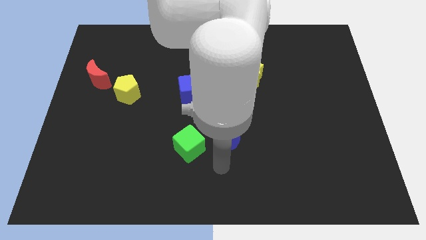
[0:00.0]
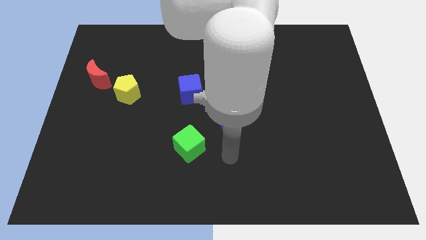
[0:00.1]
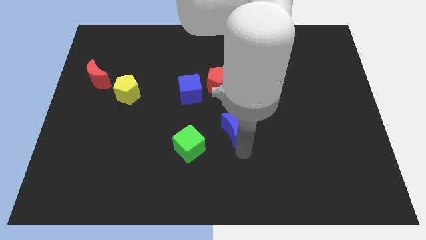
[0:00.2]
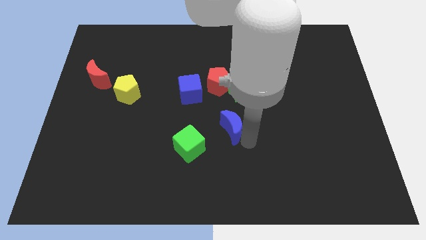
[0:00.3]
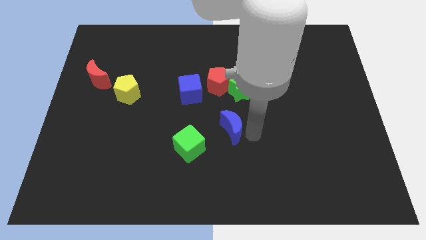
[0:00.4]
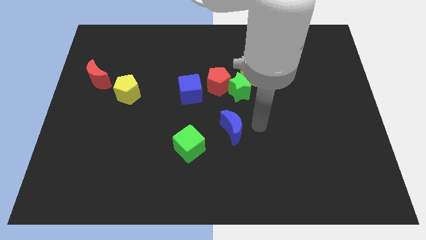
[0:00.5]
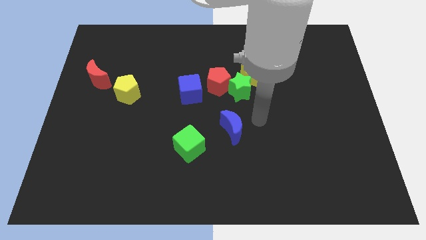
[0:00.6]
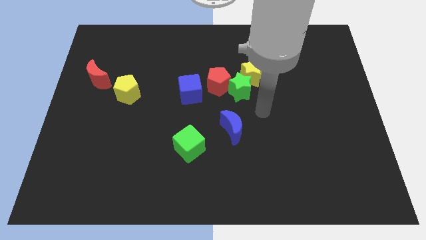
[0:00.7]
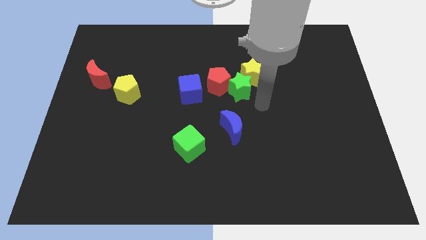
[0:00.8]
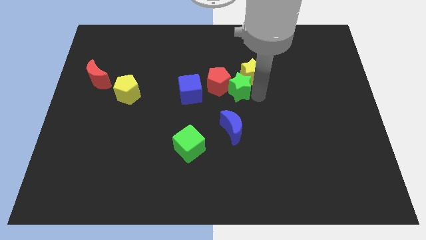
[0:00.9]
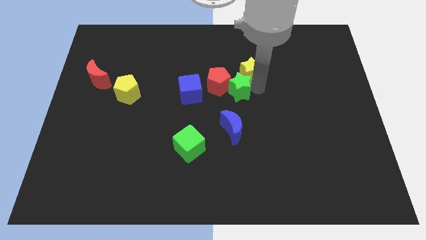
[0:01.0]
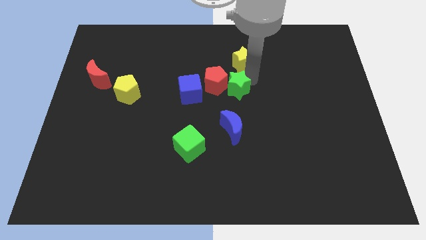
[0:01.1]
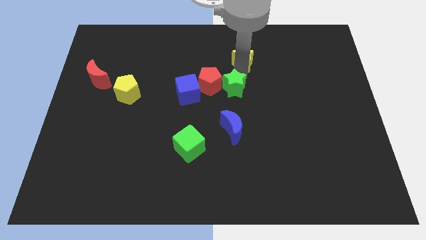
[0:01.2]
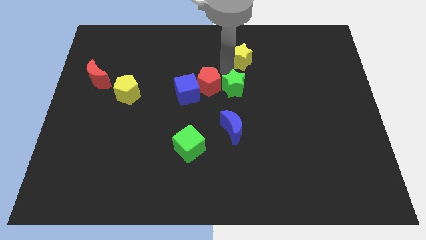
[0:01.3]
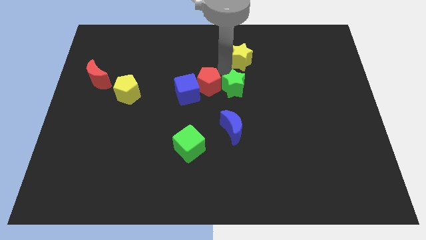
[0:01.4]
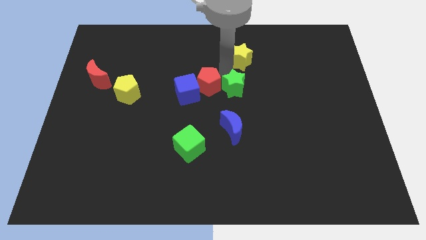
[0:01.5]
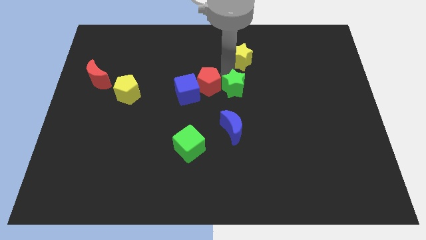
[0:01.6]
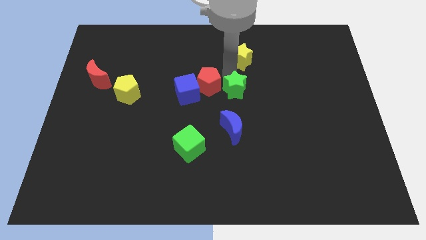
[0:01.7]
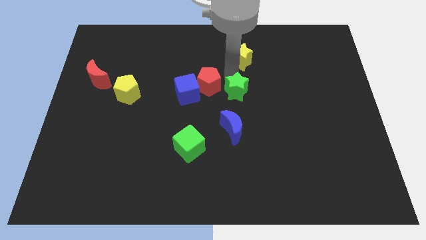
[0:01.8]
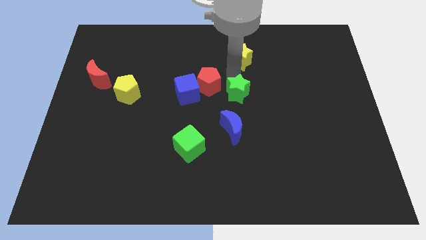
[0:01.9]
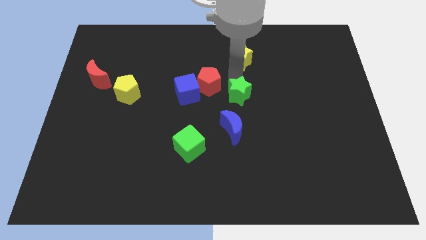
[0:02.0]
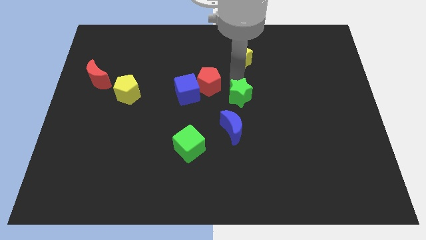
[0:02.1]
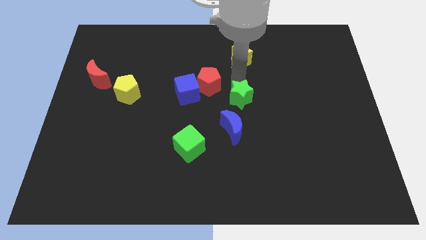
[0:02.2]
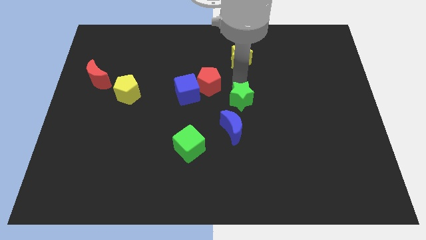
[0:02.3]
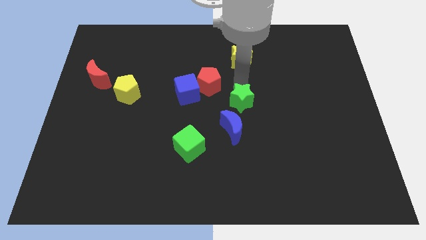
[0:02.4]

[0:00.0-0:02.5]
separate the green star from the red pentagon and yellow star

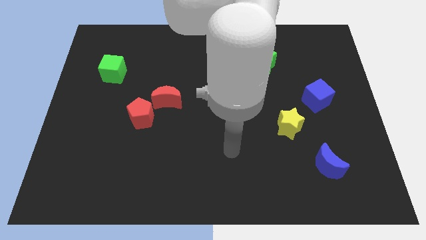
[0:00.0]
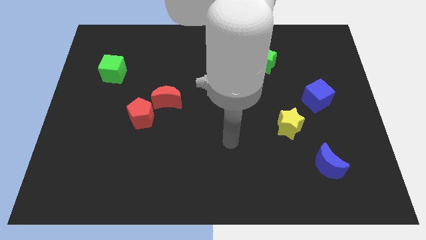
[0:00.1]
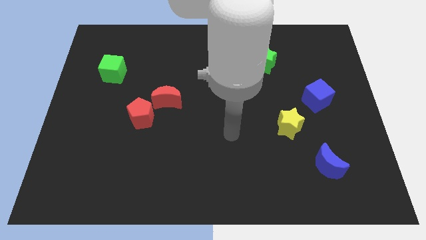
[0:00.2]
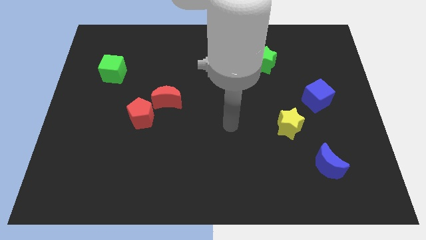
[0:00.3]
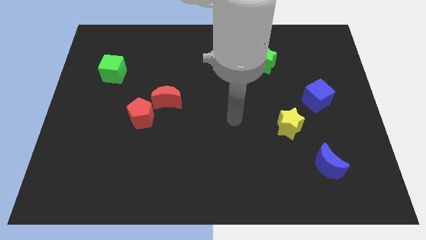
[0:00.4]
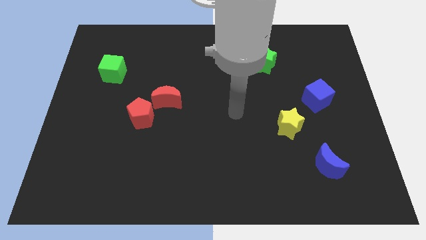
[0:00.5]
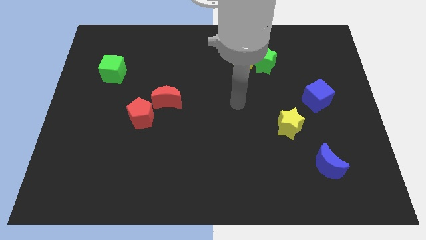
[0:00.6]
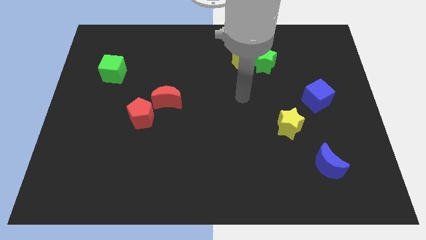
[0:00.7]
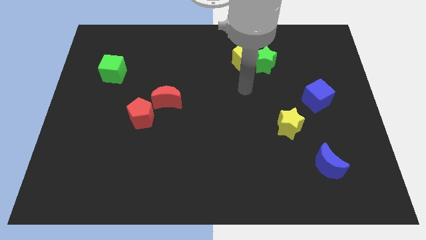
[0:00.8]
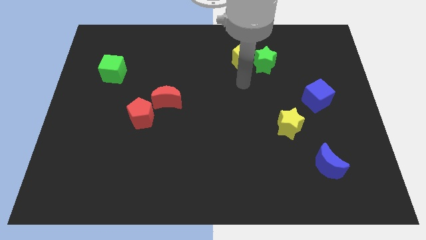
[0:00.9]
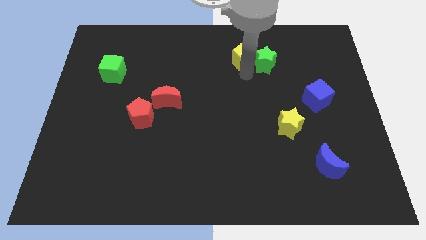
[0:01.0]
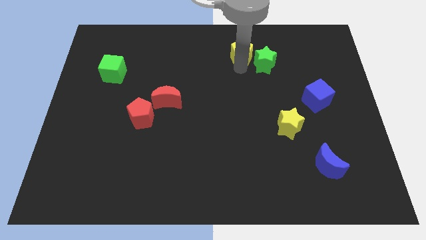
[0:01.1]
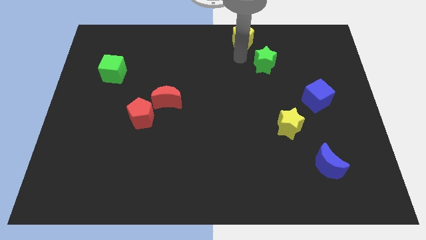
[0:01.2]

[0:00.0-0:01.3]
separate the green star from the yellow pentagon

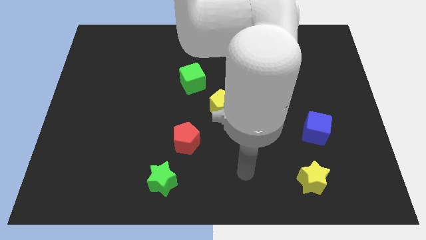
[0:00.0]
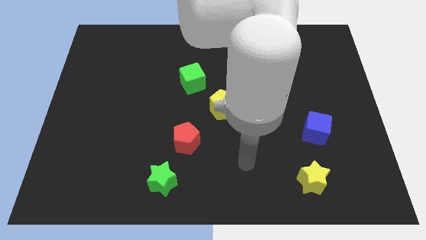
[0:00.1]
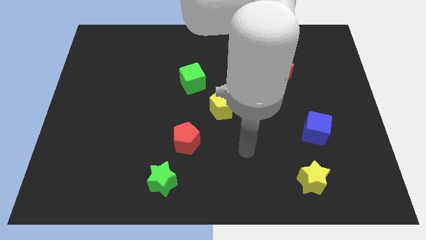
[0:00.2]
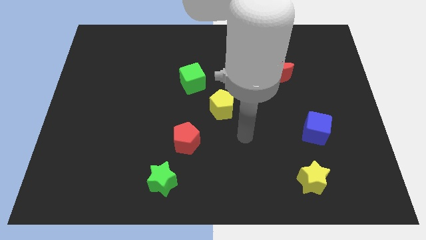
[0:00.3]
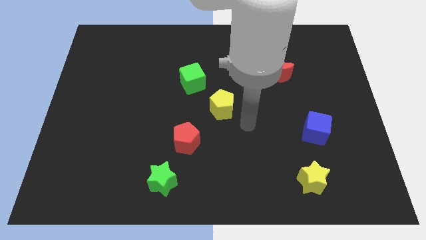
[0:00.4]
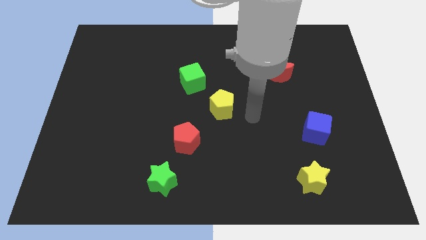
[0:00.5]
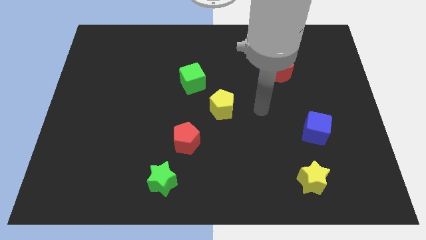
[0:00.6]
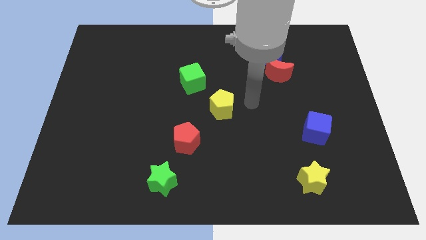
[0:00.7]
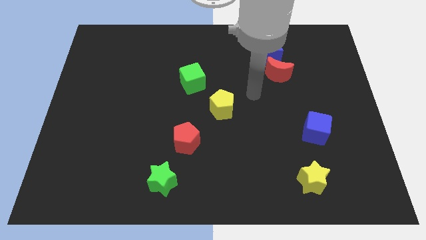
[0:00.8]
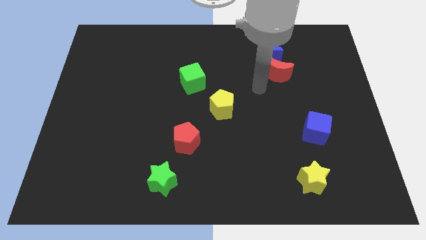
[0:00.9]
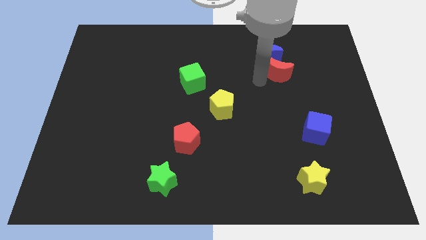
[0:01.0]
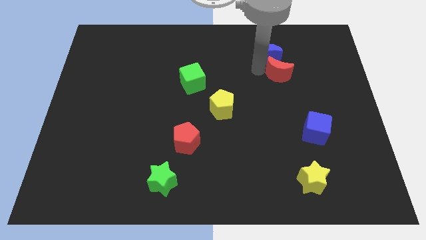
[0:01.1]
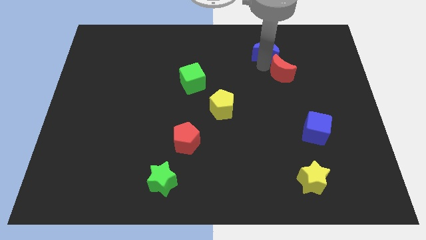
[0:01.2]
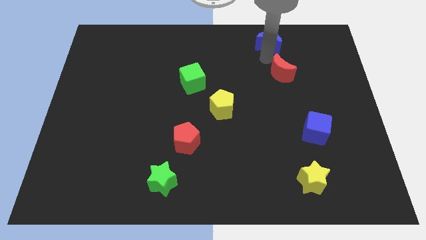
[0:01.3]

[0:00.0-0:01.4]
pull the red moon apart from the blue moon

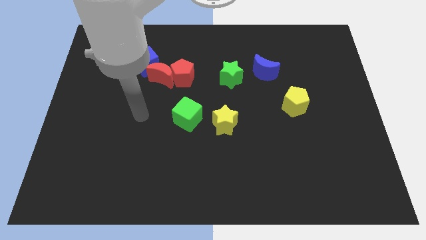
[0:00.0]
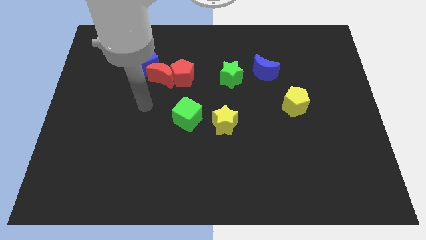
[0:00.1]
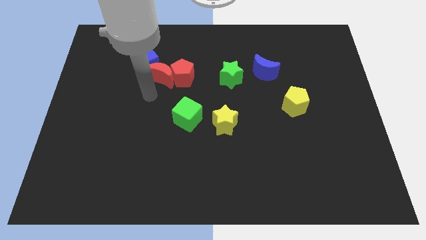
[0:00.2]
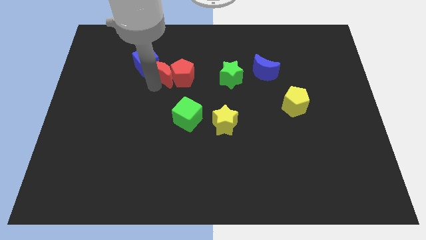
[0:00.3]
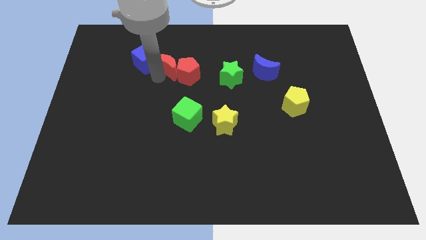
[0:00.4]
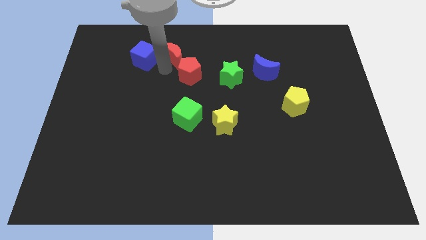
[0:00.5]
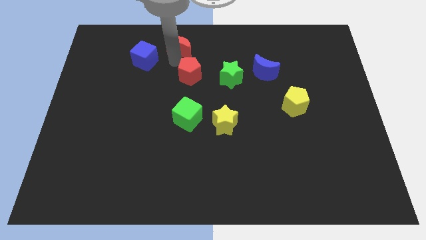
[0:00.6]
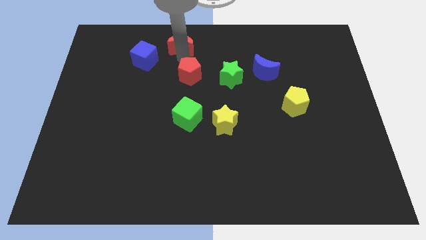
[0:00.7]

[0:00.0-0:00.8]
pull the red pentagon apart from the red moon

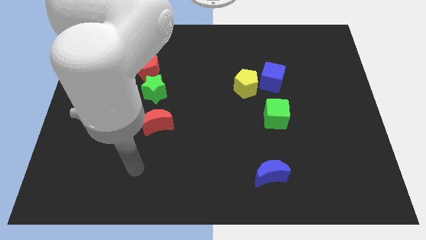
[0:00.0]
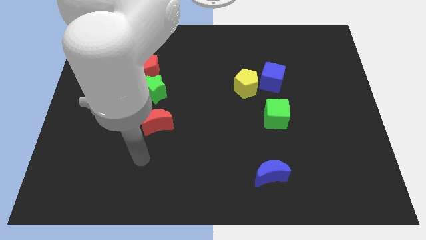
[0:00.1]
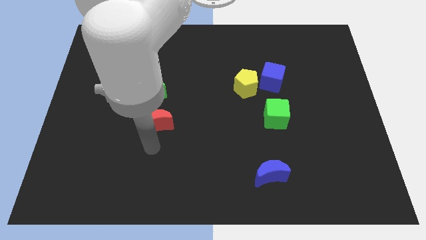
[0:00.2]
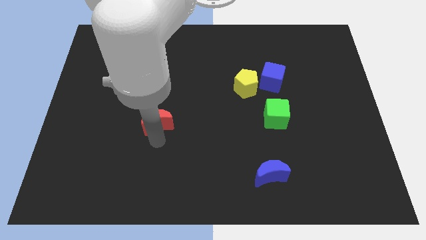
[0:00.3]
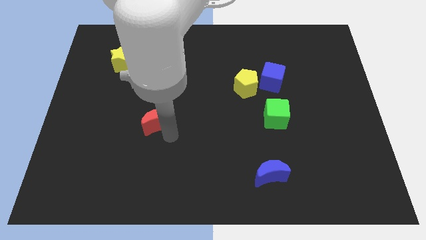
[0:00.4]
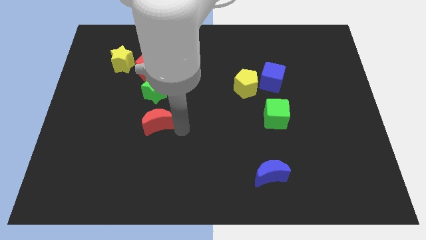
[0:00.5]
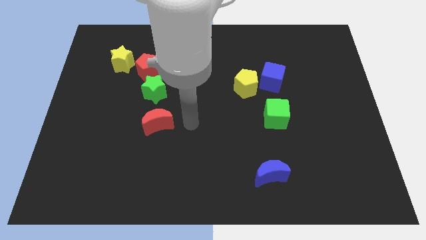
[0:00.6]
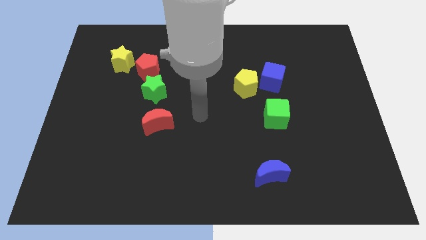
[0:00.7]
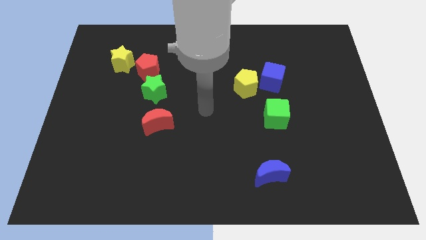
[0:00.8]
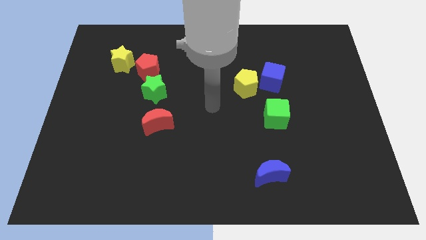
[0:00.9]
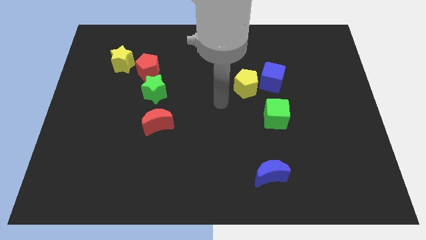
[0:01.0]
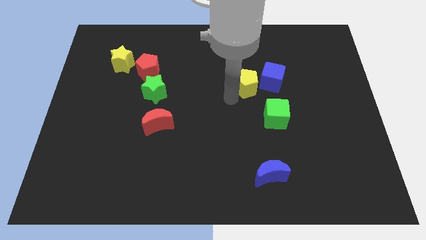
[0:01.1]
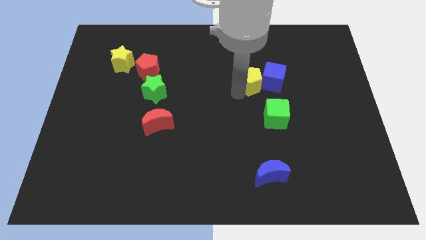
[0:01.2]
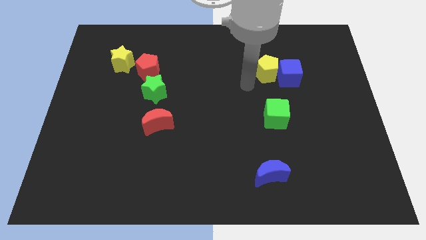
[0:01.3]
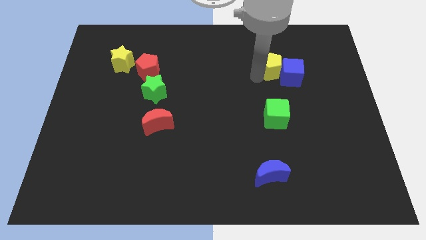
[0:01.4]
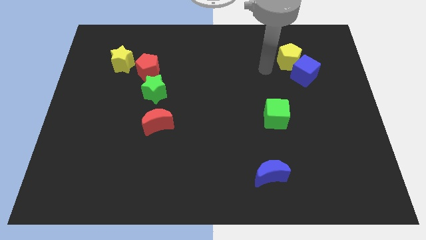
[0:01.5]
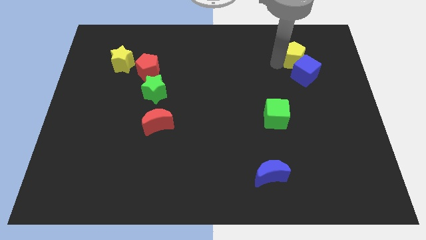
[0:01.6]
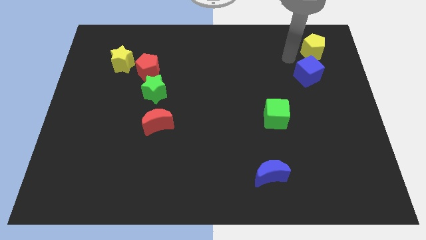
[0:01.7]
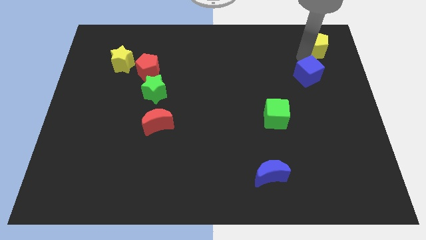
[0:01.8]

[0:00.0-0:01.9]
move the blue cube away from the yellow pentagon

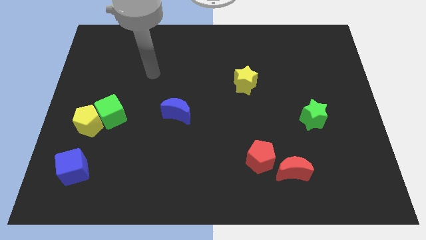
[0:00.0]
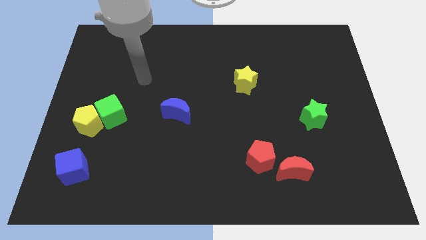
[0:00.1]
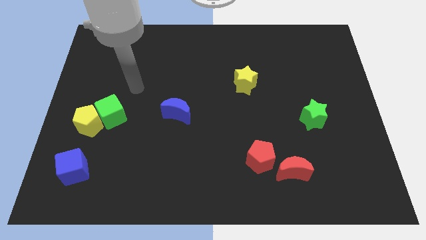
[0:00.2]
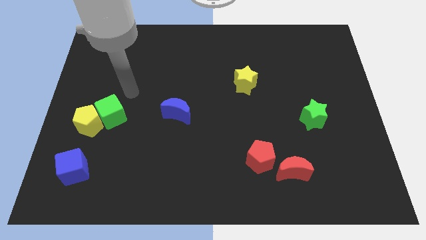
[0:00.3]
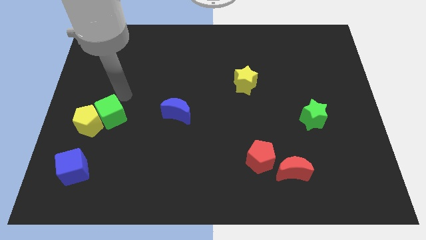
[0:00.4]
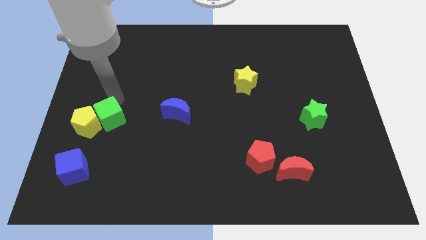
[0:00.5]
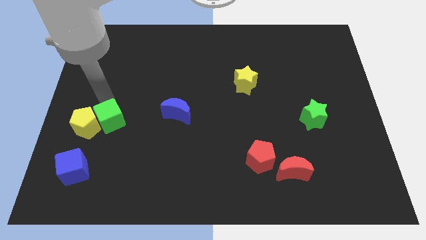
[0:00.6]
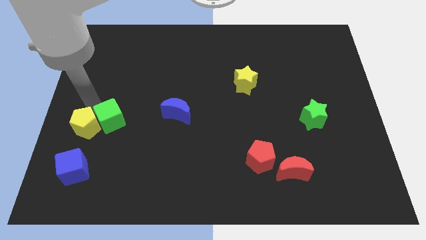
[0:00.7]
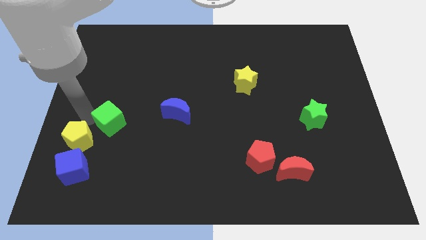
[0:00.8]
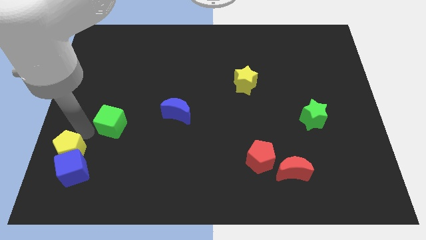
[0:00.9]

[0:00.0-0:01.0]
separate the green cube from the yellow pentagon

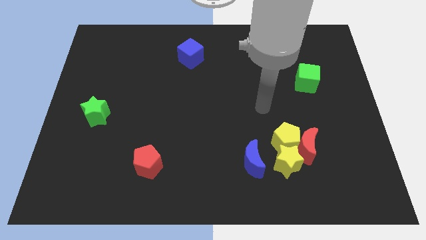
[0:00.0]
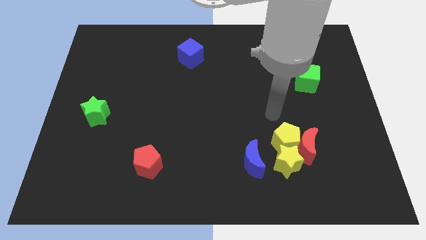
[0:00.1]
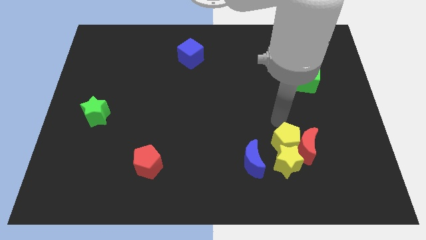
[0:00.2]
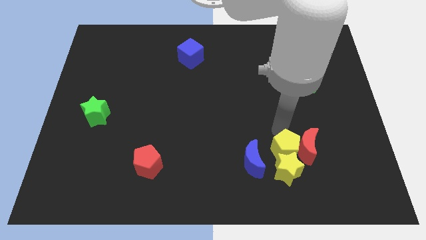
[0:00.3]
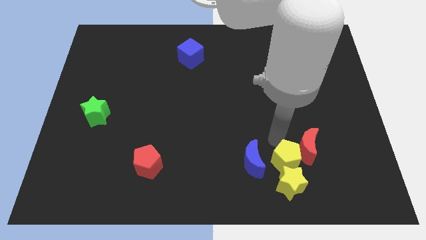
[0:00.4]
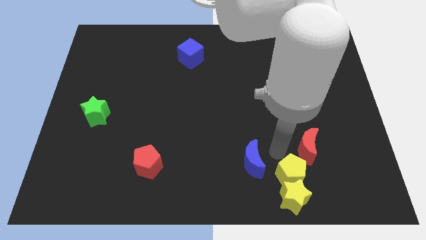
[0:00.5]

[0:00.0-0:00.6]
pull the red moon apart from the yellow pentagon and yellow star
